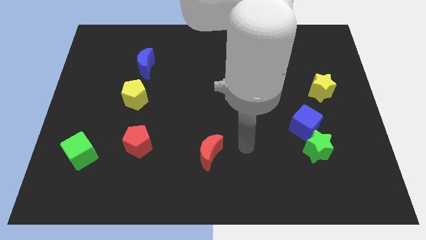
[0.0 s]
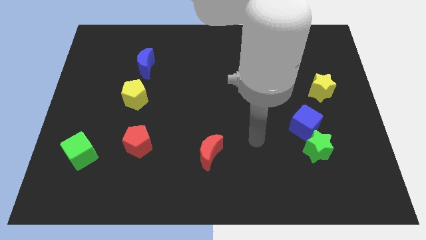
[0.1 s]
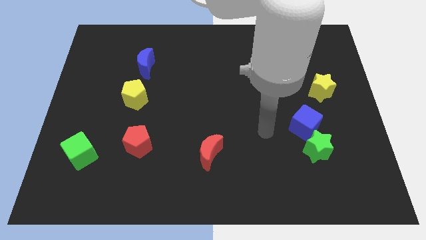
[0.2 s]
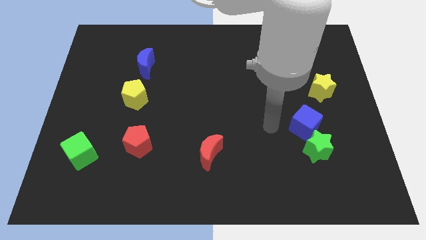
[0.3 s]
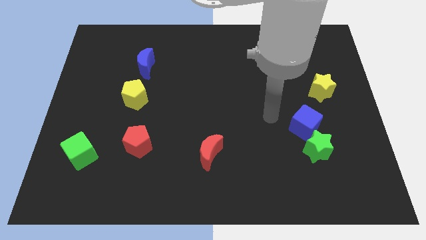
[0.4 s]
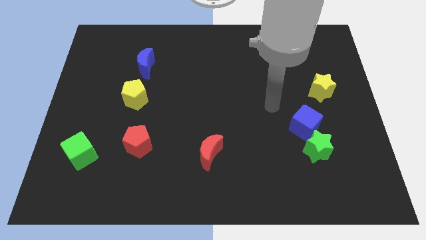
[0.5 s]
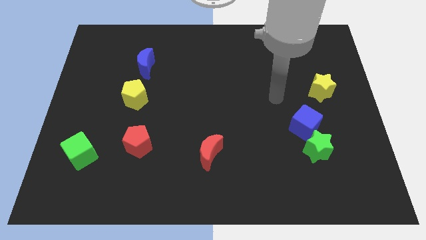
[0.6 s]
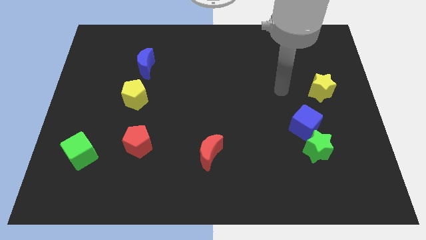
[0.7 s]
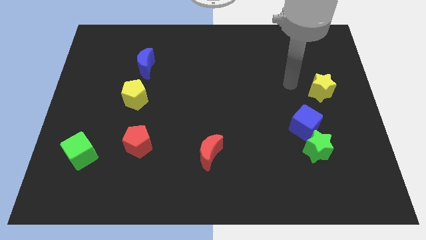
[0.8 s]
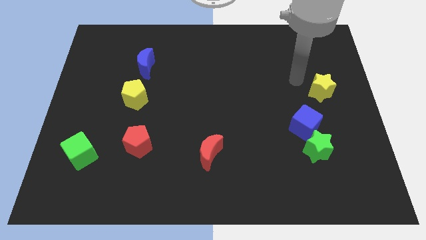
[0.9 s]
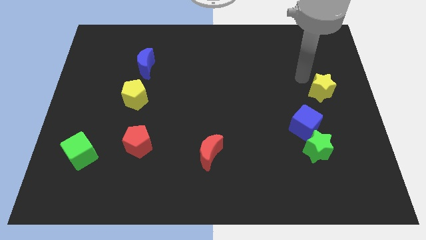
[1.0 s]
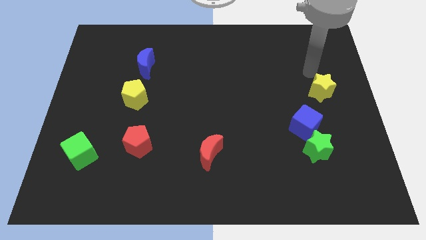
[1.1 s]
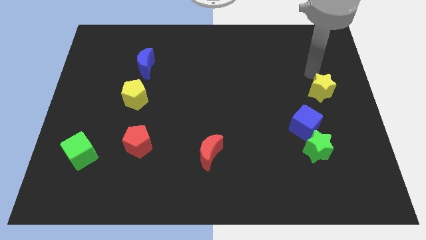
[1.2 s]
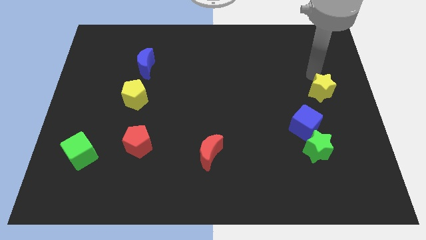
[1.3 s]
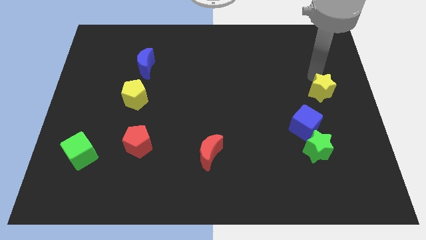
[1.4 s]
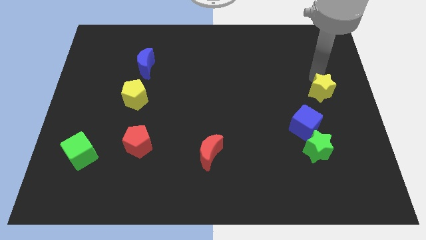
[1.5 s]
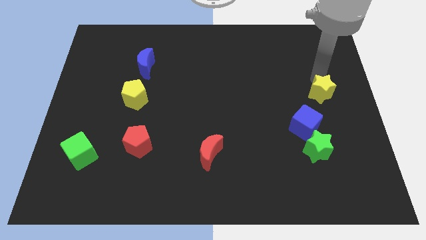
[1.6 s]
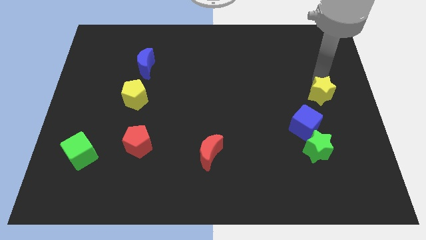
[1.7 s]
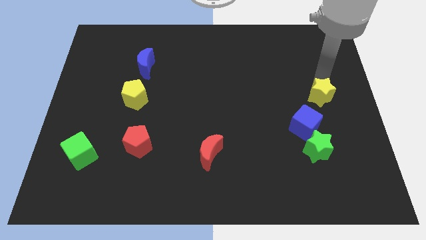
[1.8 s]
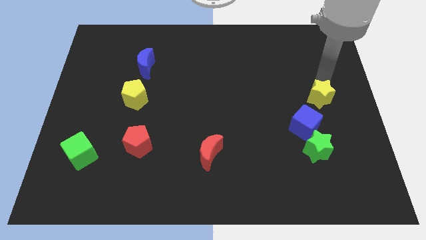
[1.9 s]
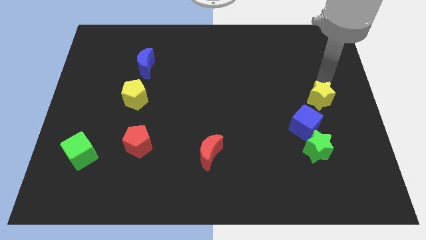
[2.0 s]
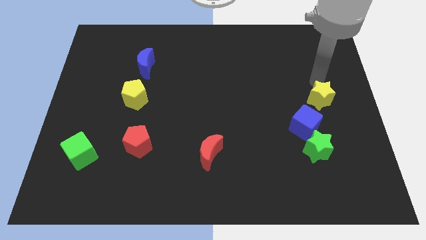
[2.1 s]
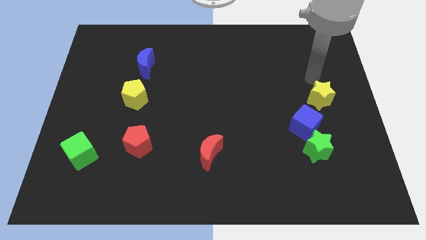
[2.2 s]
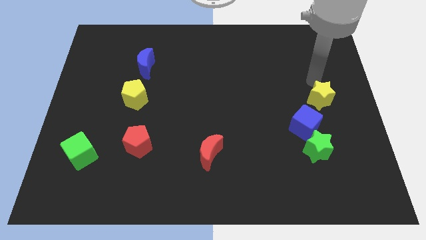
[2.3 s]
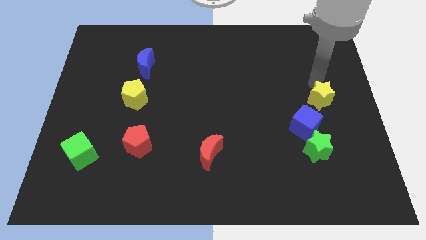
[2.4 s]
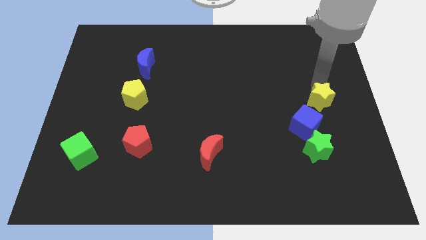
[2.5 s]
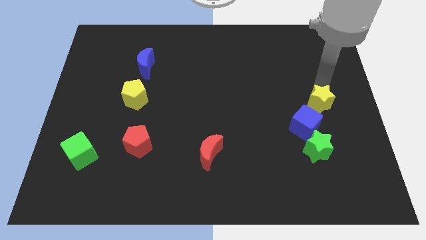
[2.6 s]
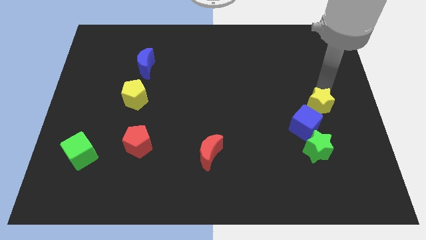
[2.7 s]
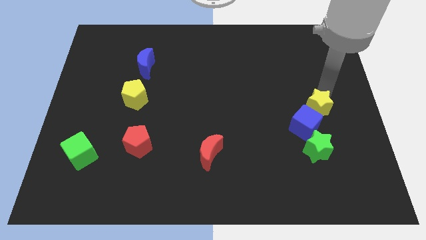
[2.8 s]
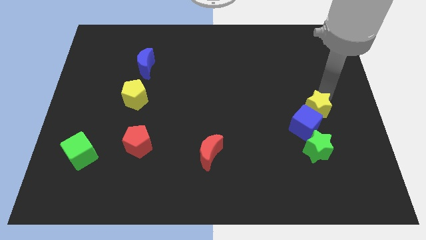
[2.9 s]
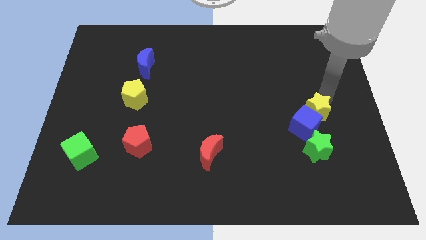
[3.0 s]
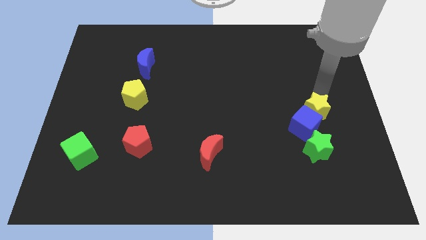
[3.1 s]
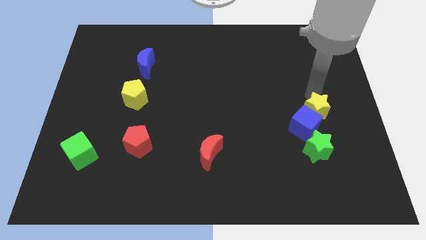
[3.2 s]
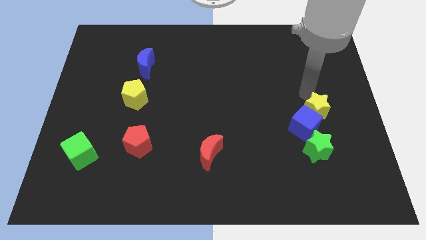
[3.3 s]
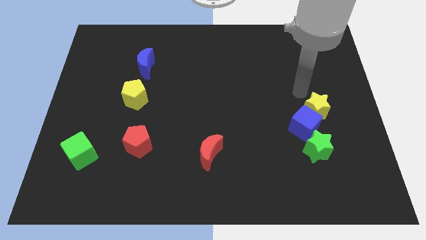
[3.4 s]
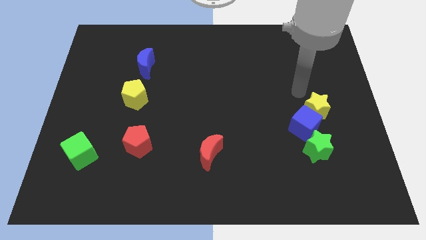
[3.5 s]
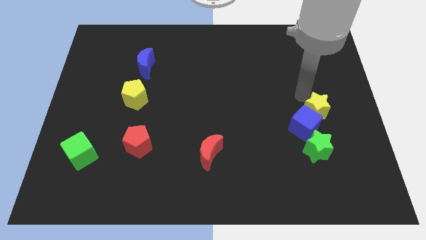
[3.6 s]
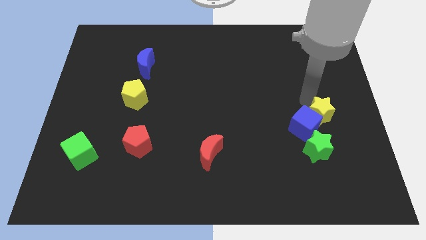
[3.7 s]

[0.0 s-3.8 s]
move the yellow star a little bit down

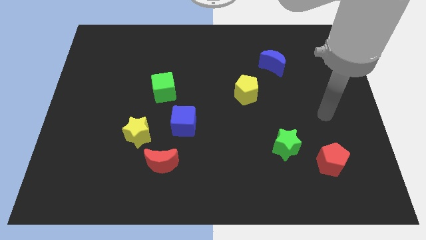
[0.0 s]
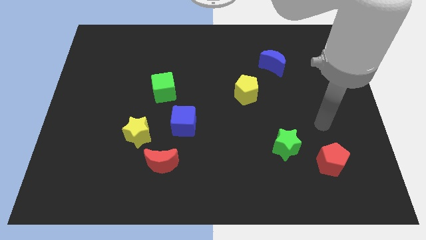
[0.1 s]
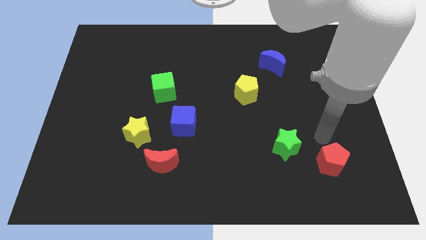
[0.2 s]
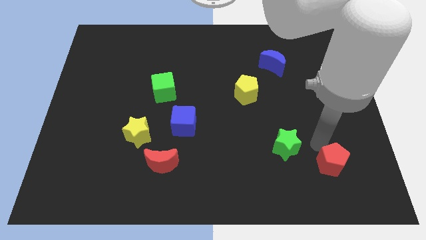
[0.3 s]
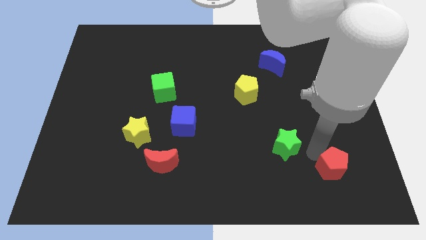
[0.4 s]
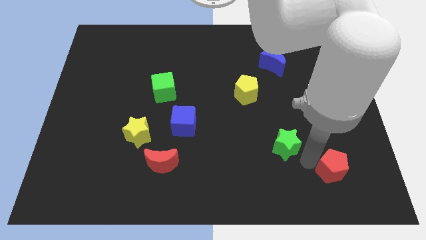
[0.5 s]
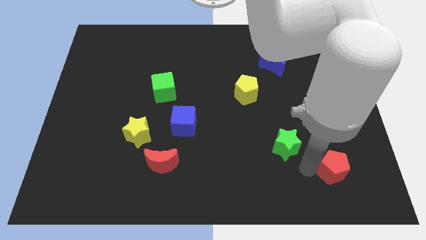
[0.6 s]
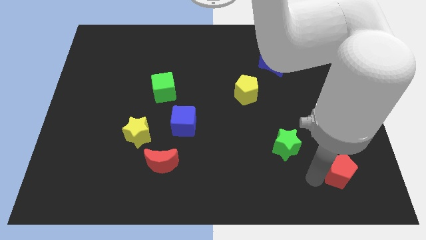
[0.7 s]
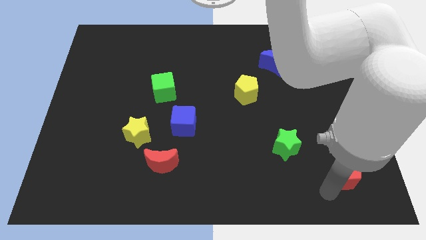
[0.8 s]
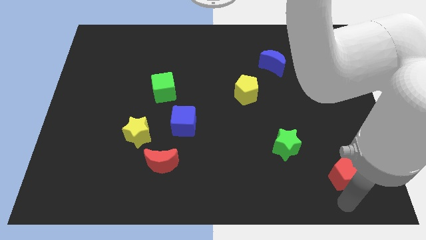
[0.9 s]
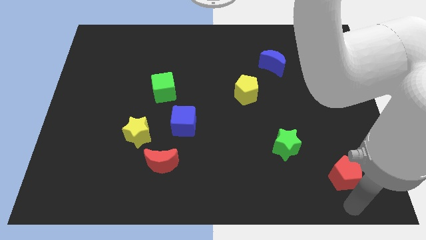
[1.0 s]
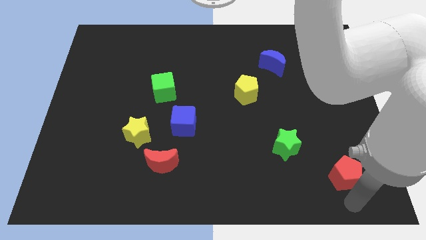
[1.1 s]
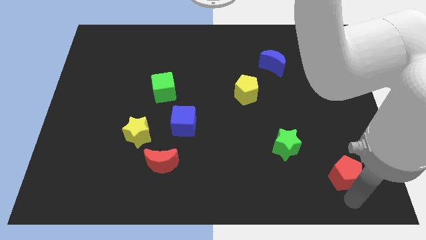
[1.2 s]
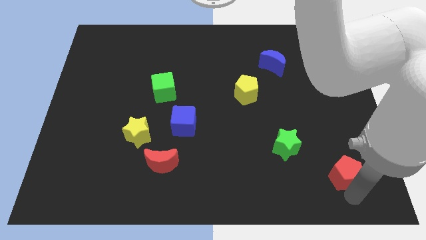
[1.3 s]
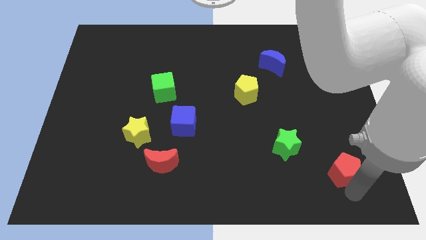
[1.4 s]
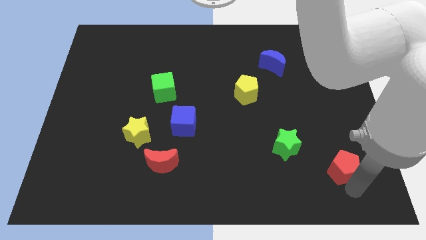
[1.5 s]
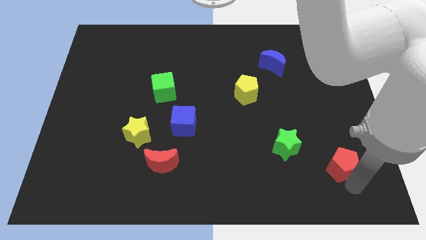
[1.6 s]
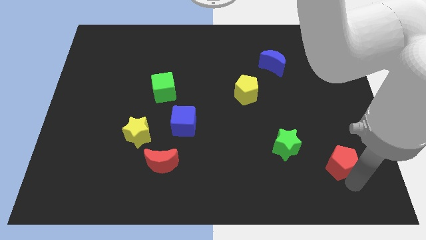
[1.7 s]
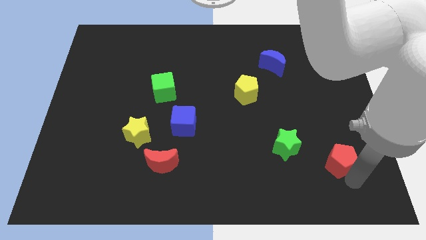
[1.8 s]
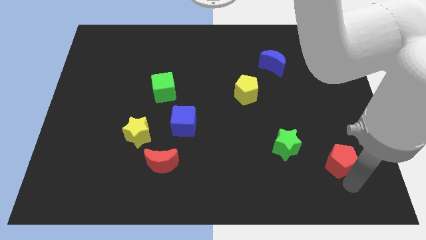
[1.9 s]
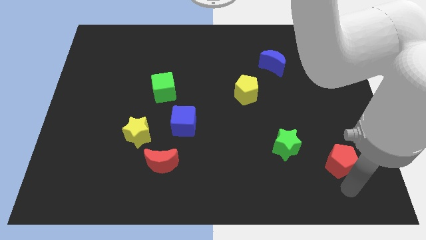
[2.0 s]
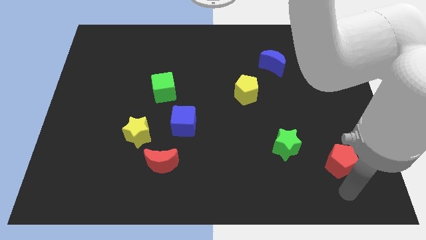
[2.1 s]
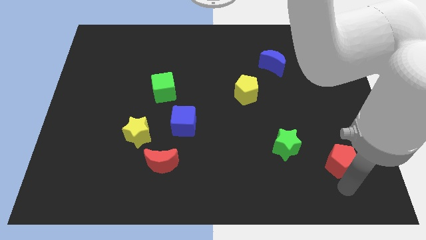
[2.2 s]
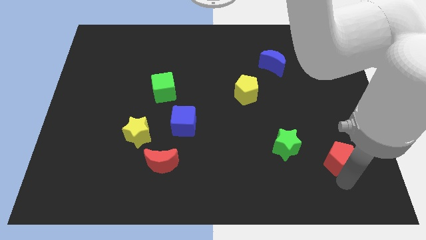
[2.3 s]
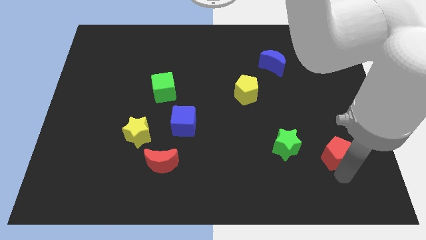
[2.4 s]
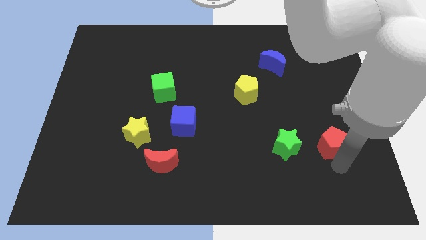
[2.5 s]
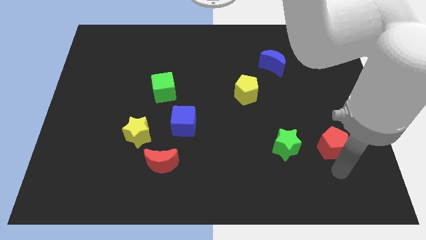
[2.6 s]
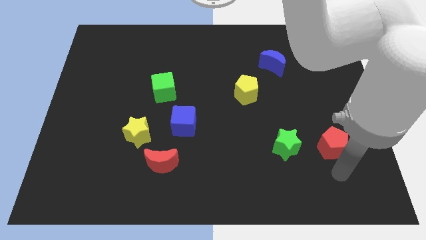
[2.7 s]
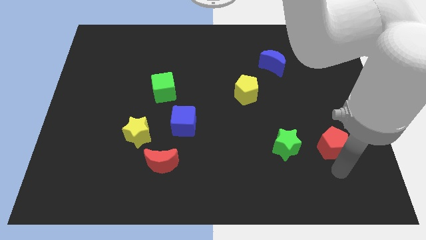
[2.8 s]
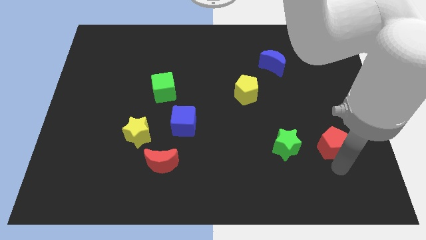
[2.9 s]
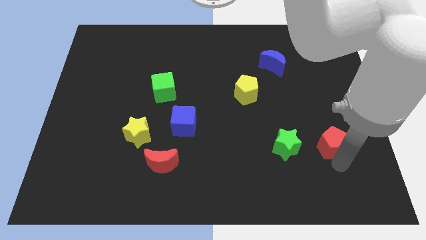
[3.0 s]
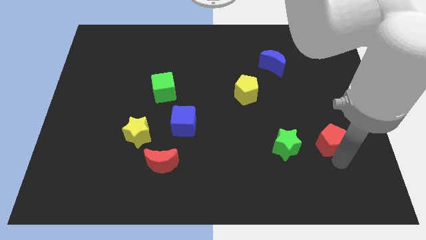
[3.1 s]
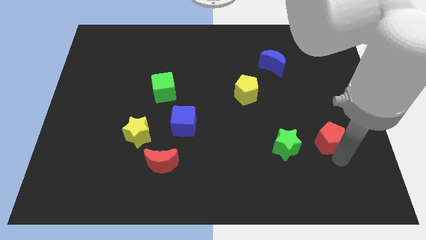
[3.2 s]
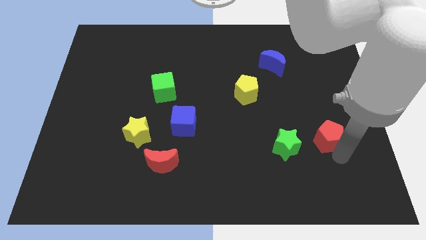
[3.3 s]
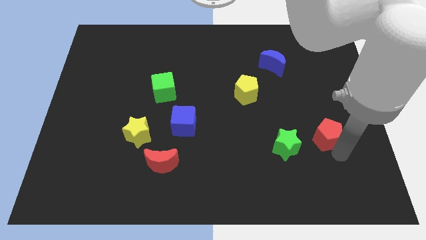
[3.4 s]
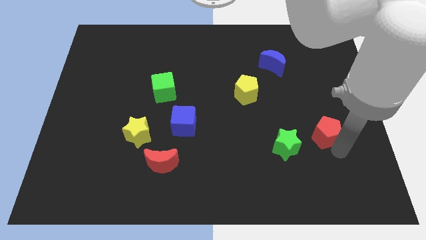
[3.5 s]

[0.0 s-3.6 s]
push the red pentagon slightly up

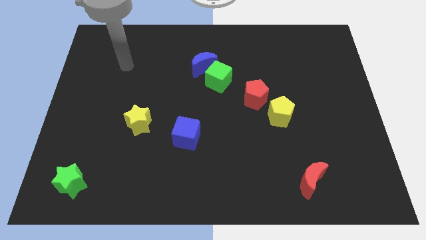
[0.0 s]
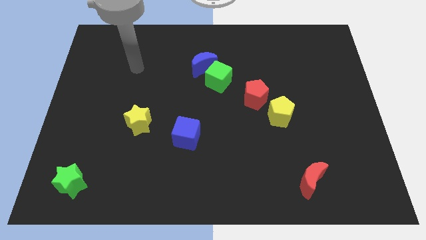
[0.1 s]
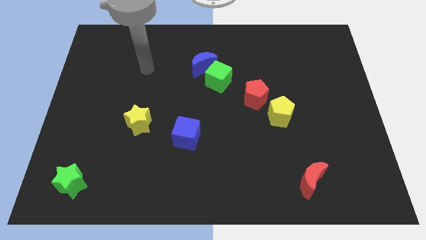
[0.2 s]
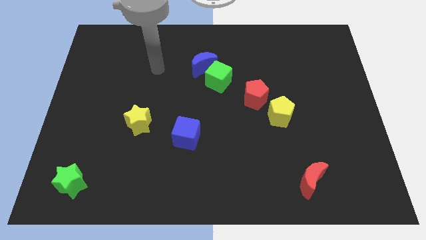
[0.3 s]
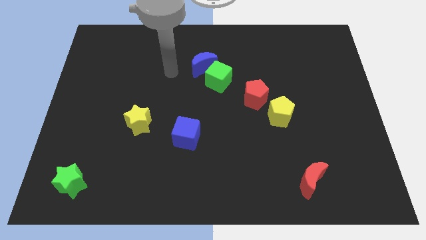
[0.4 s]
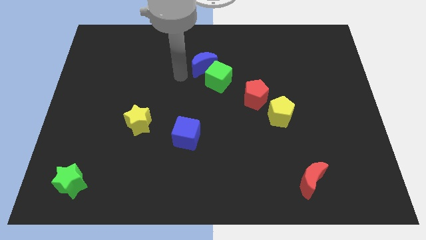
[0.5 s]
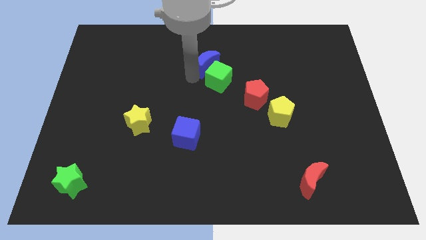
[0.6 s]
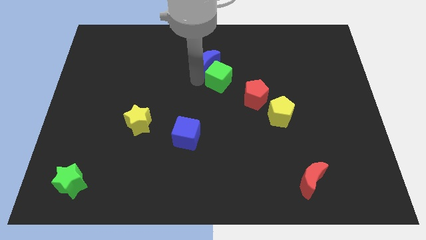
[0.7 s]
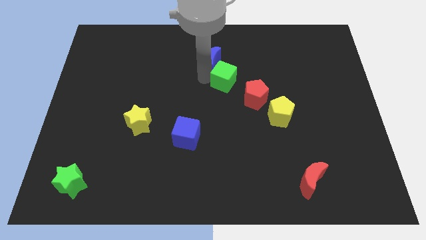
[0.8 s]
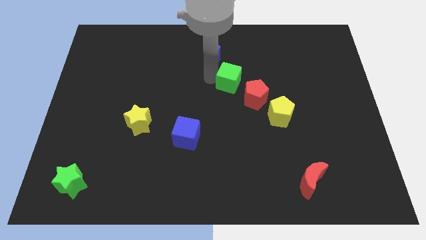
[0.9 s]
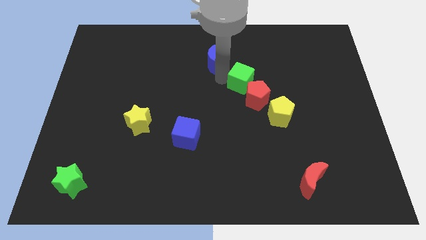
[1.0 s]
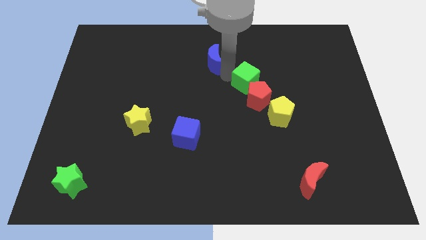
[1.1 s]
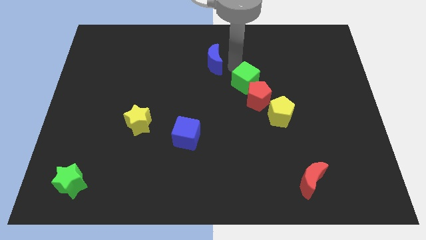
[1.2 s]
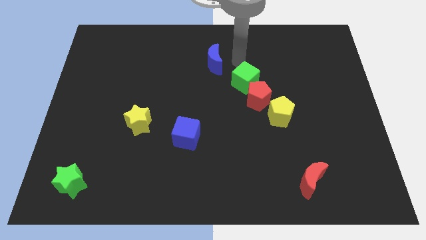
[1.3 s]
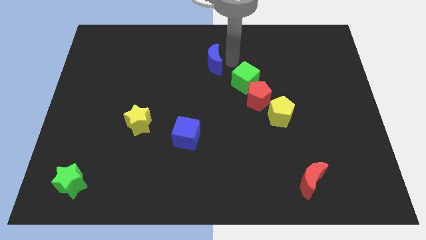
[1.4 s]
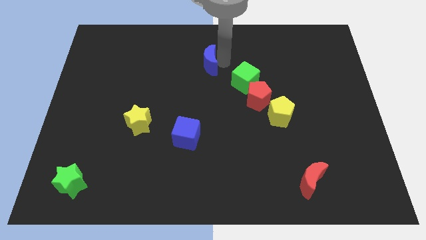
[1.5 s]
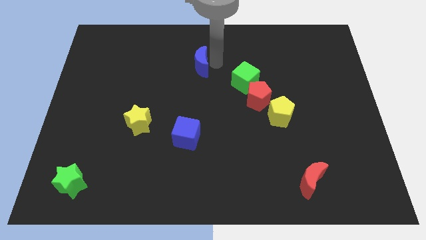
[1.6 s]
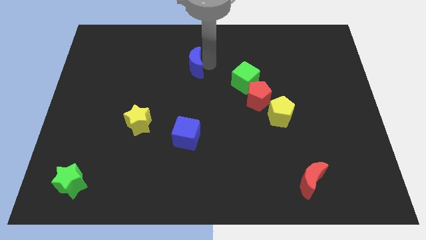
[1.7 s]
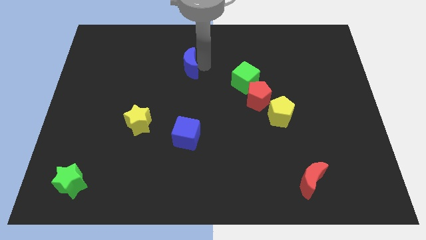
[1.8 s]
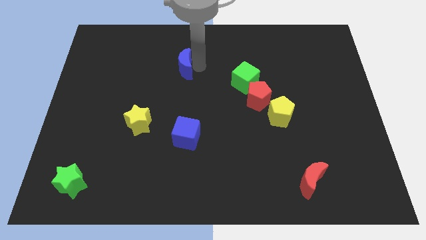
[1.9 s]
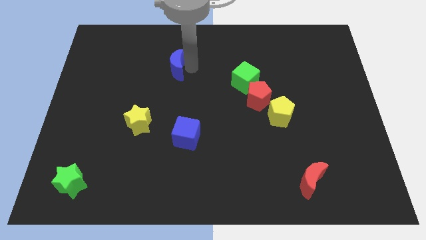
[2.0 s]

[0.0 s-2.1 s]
move the blue moon a little left
